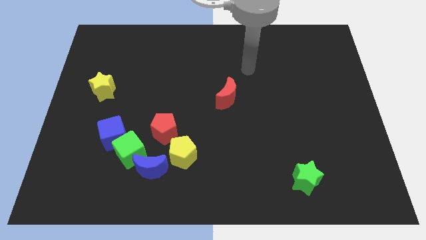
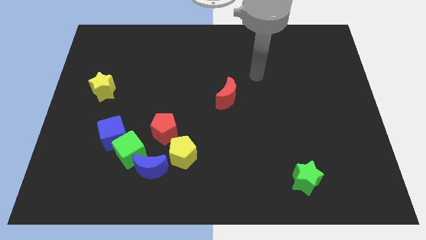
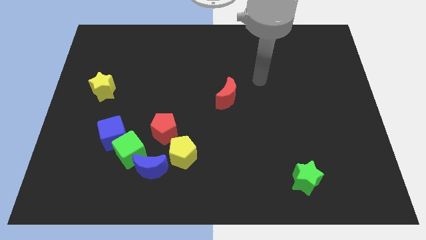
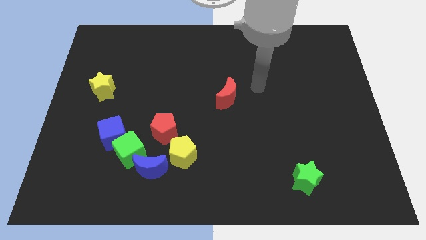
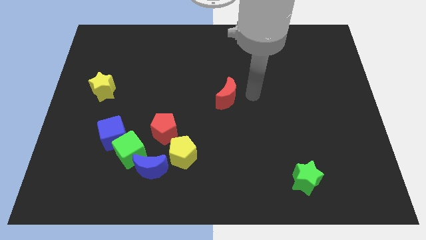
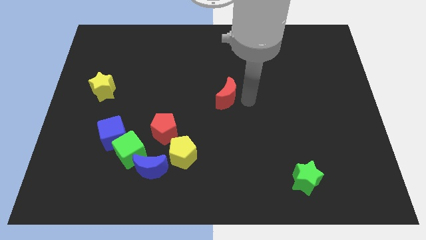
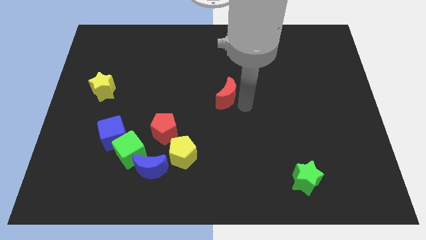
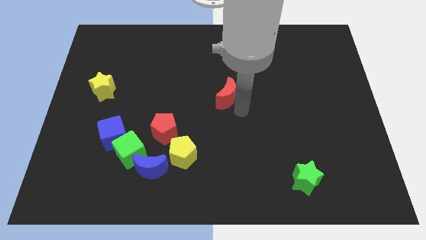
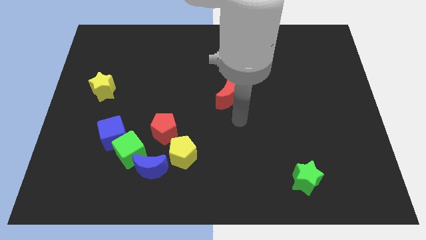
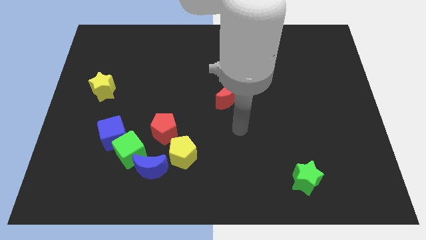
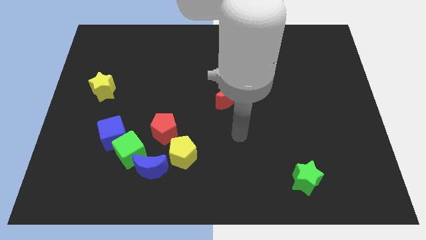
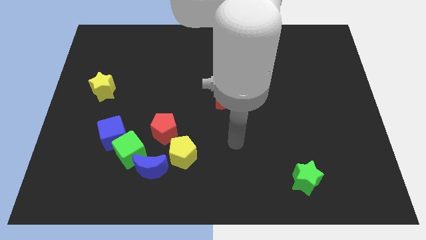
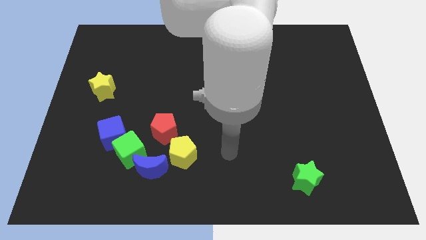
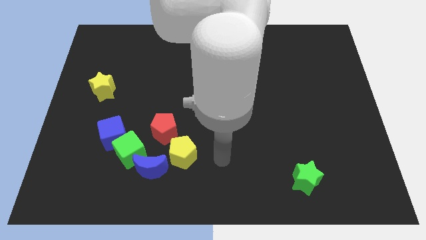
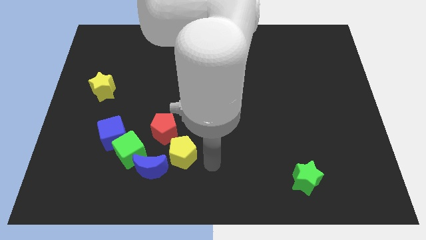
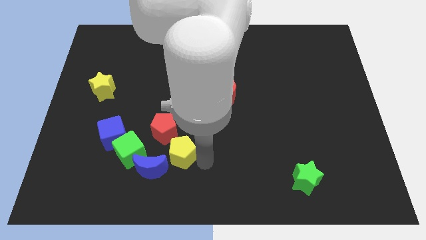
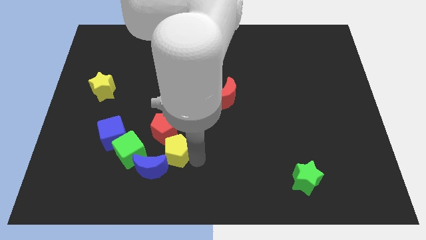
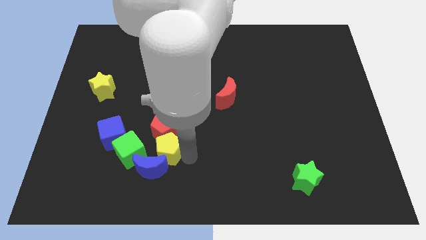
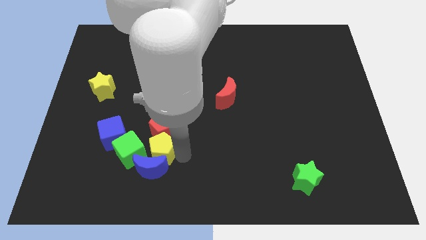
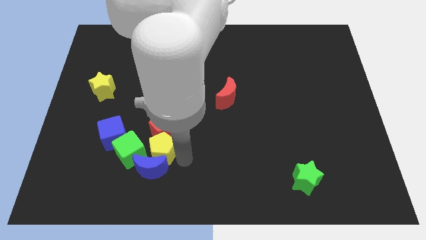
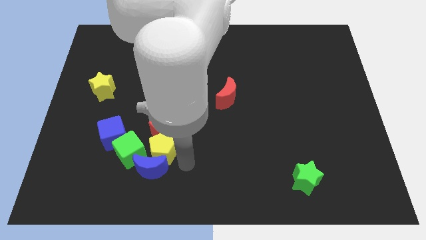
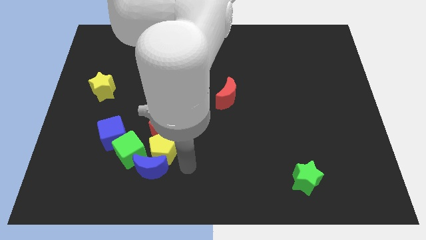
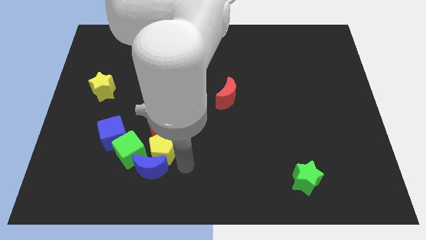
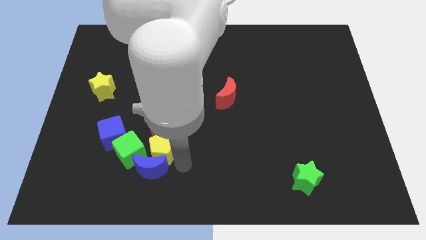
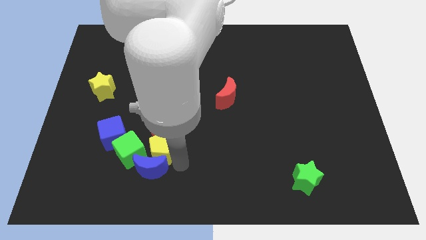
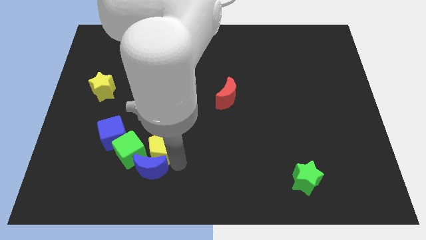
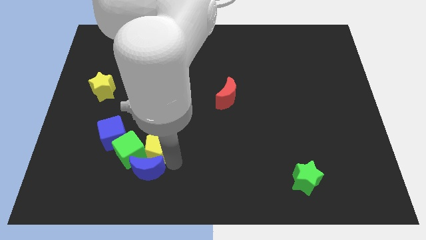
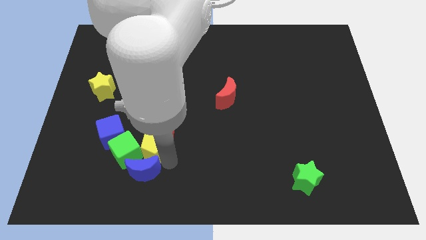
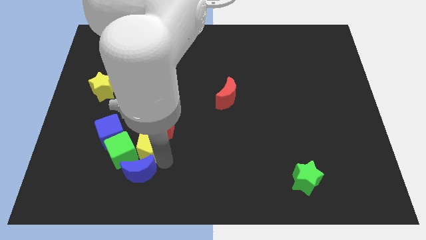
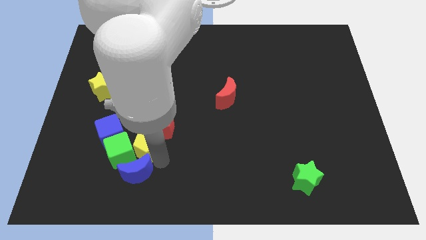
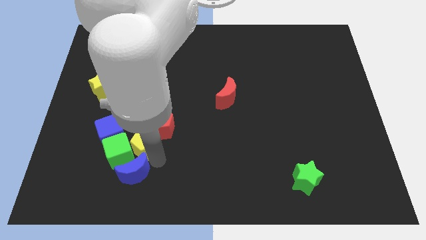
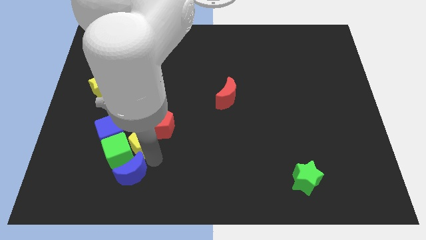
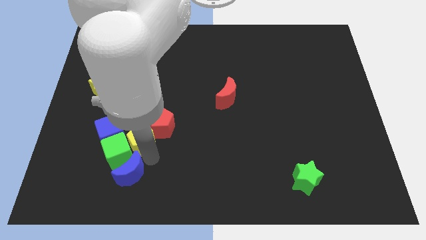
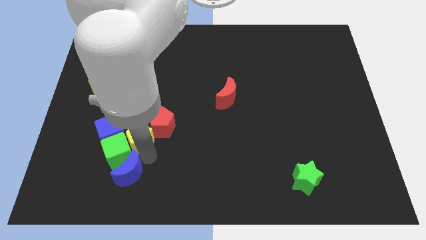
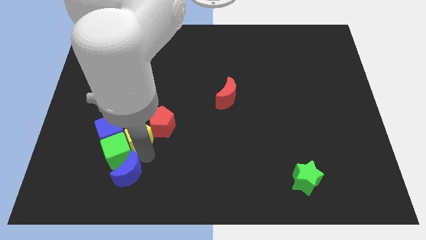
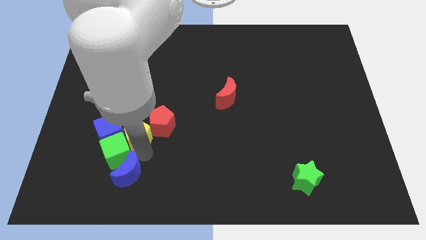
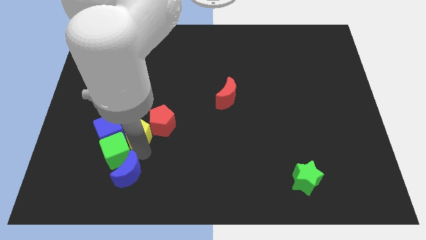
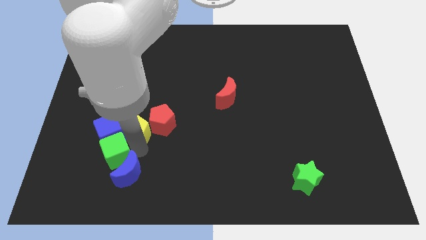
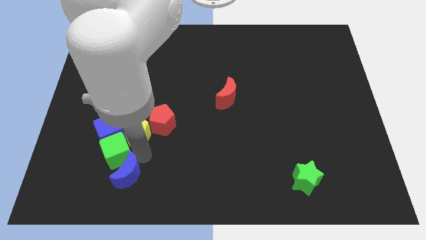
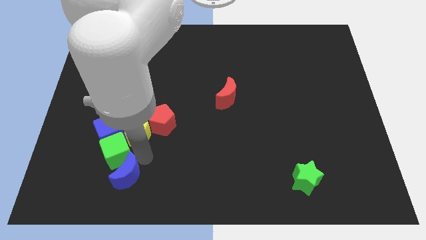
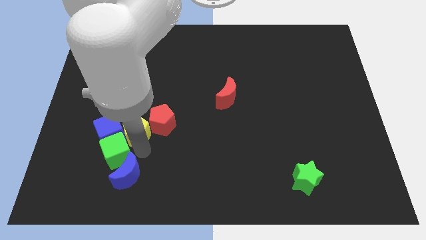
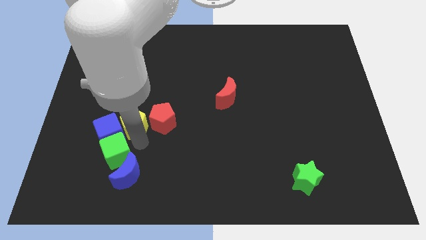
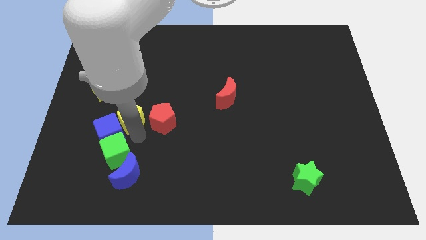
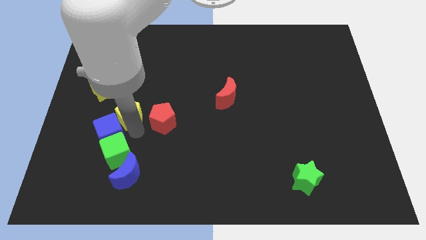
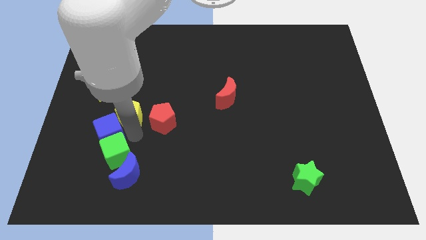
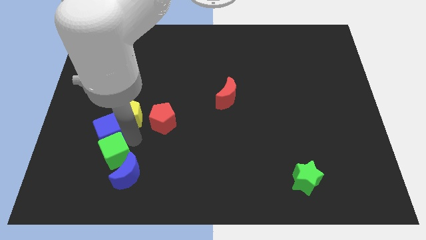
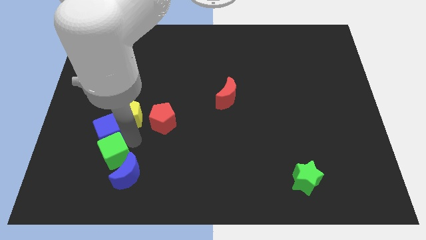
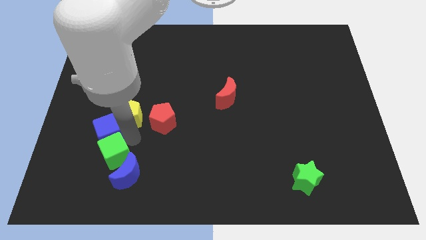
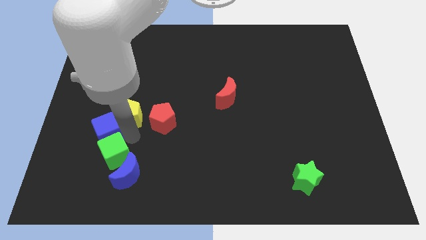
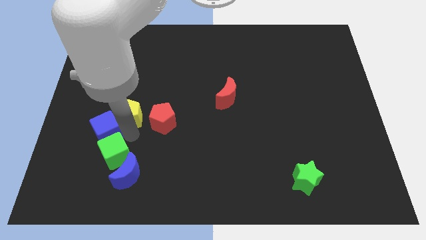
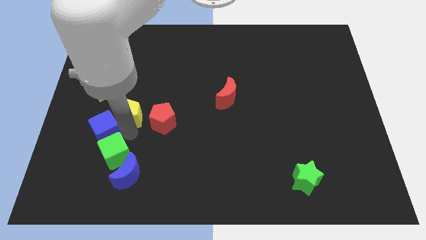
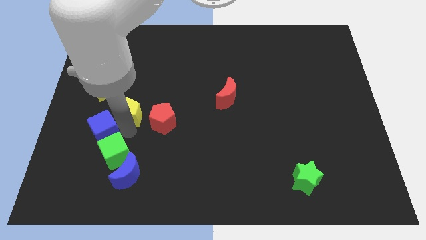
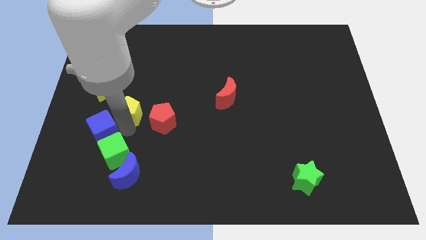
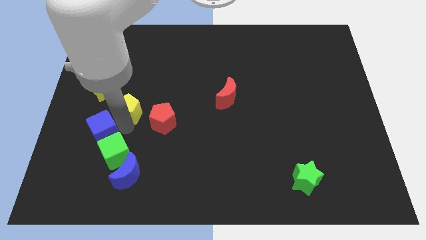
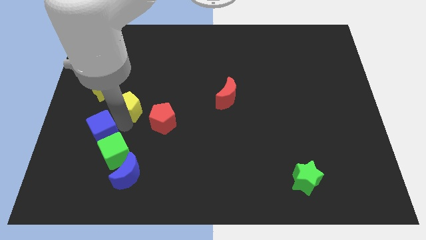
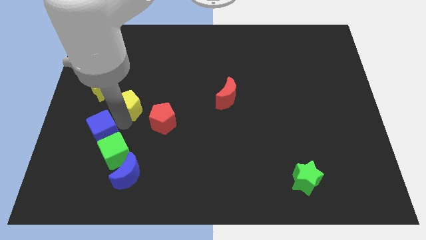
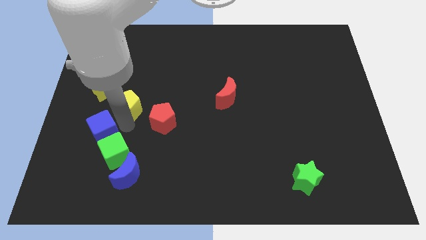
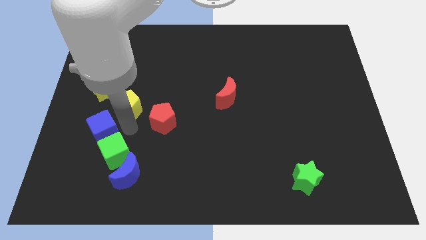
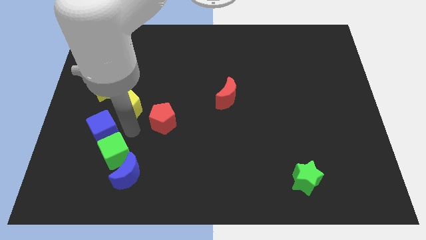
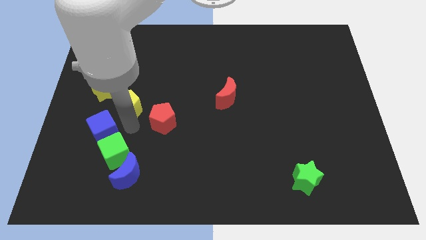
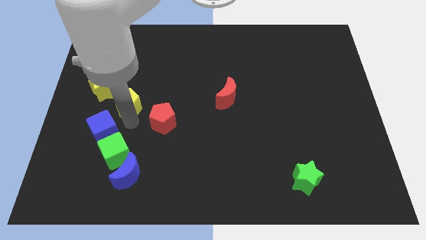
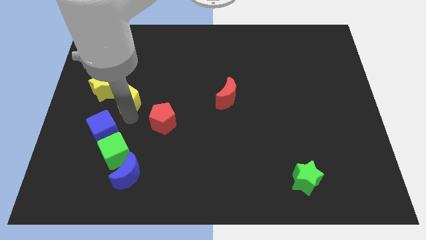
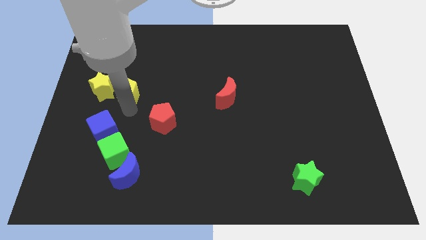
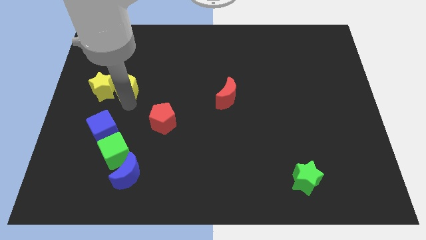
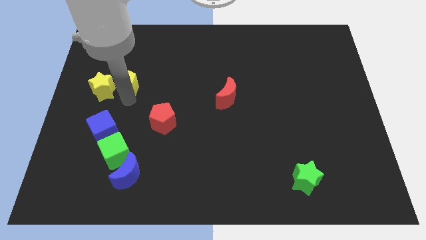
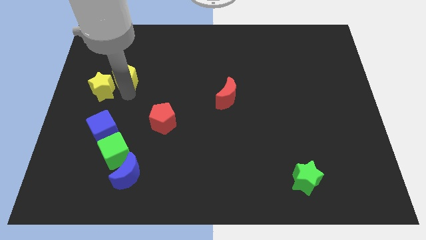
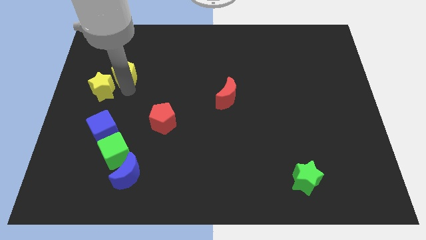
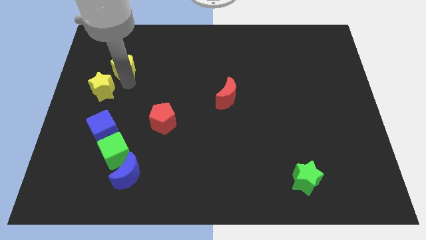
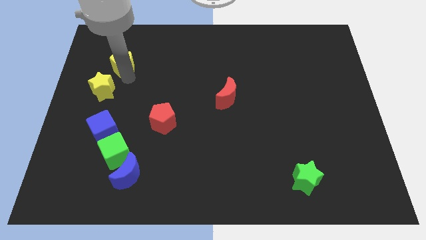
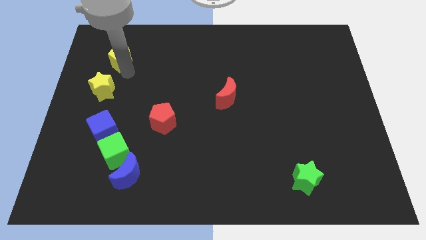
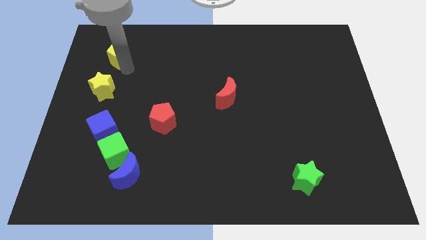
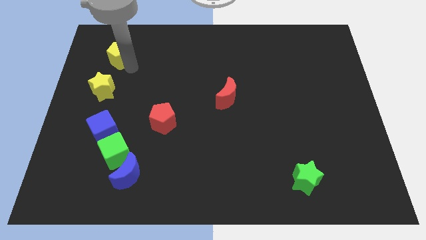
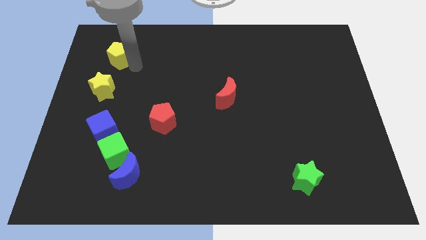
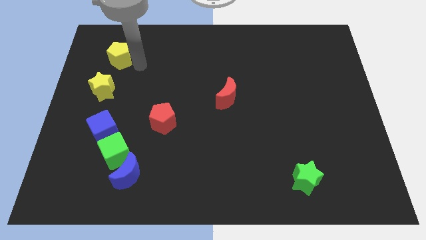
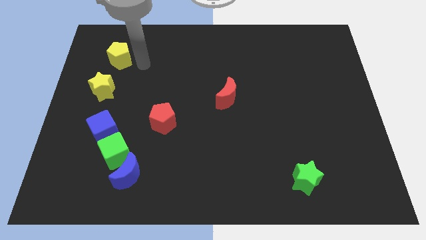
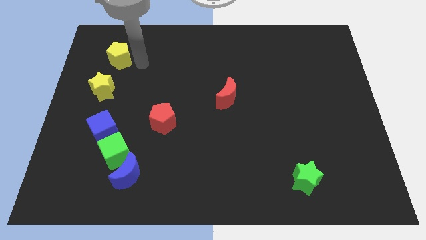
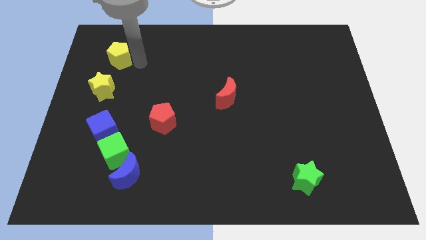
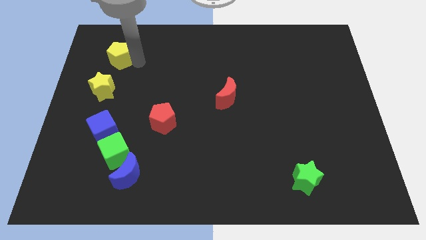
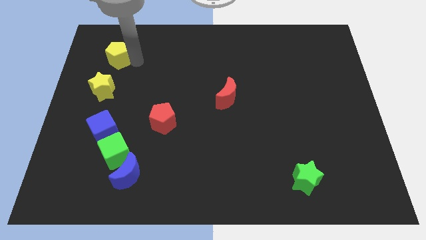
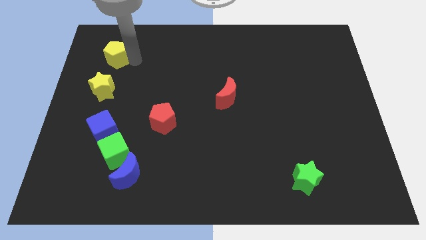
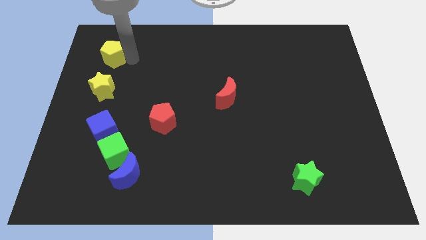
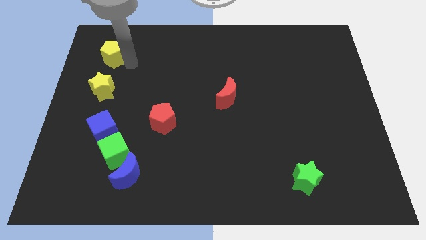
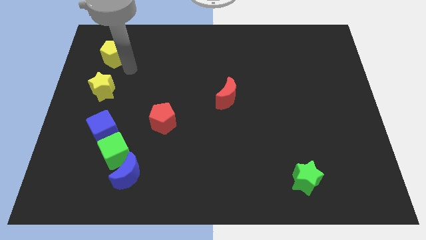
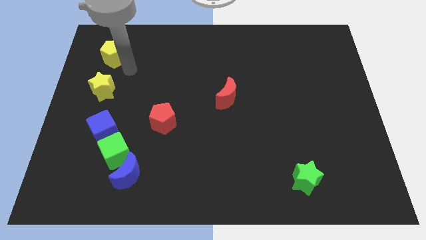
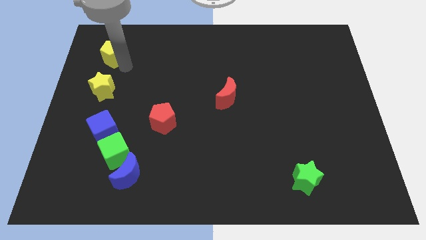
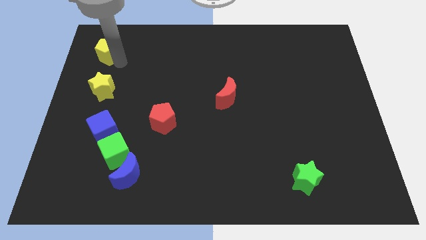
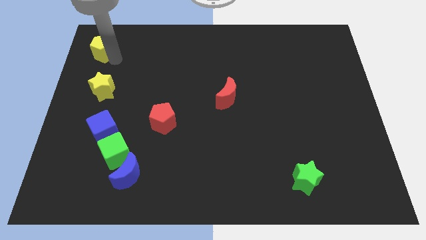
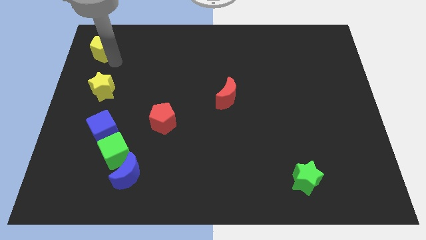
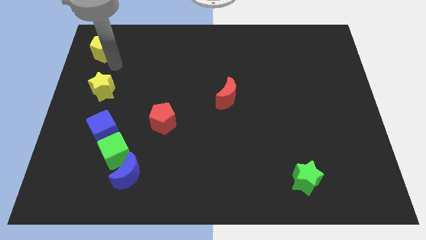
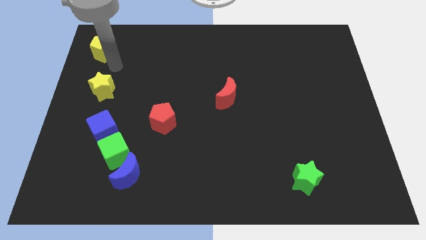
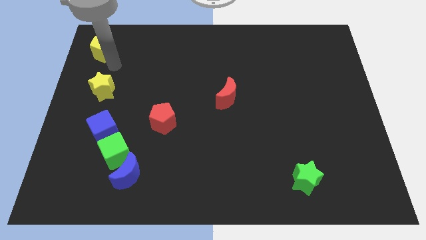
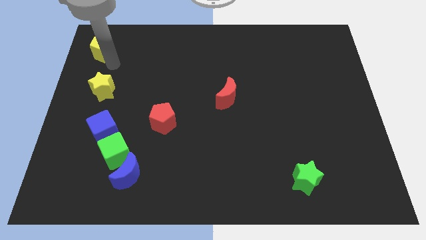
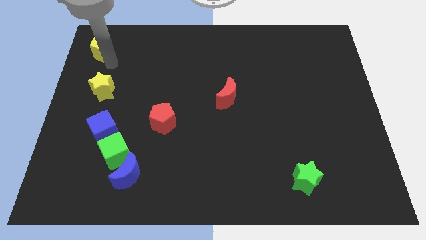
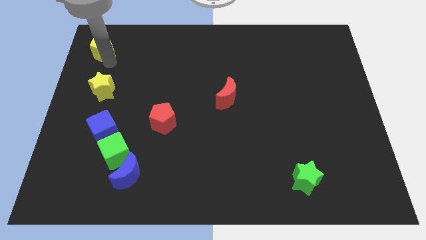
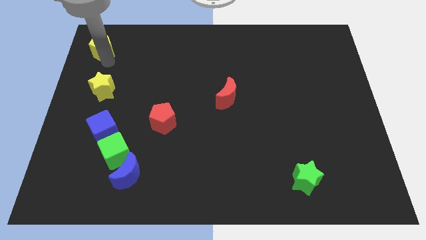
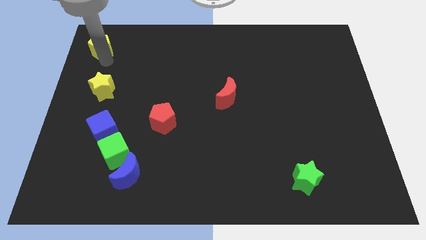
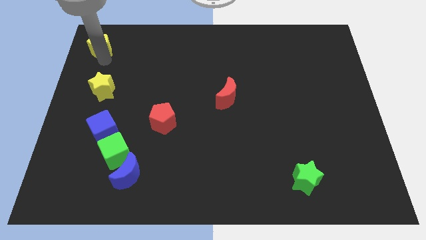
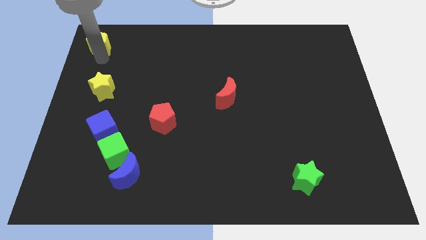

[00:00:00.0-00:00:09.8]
move the yellow pentagon to the upper left corner
